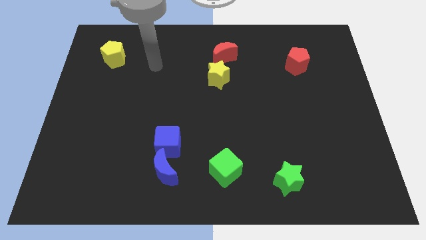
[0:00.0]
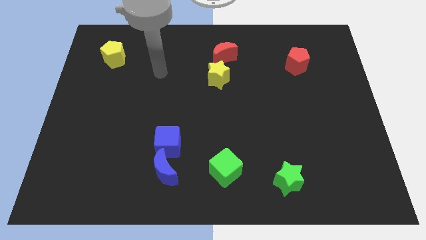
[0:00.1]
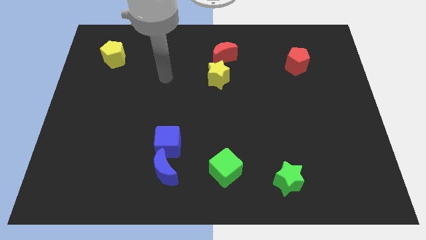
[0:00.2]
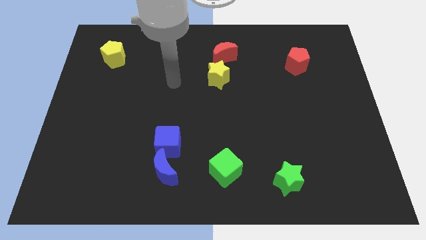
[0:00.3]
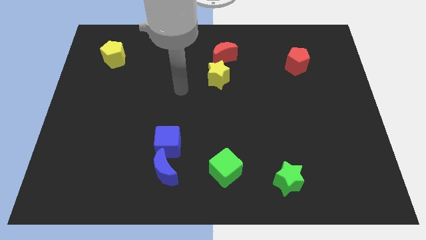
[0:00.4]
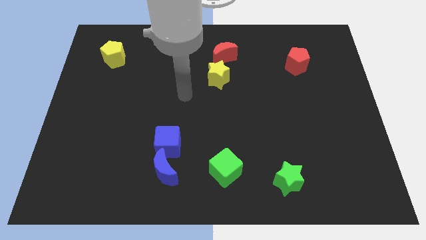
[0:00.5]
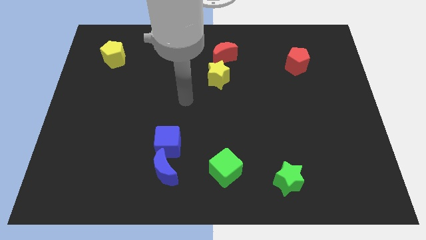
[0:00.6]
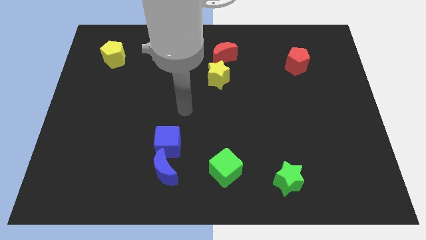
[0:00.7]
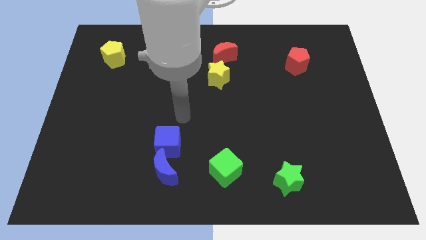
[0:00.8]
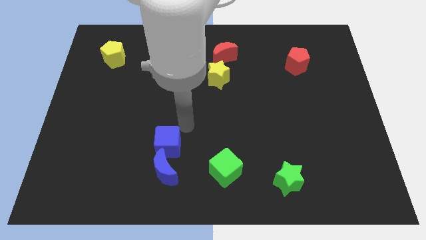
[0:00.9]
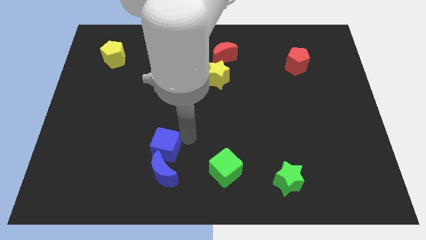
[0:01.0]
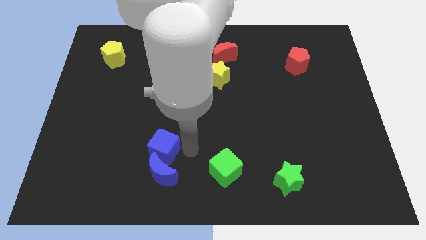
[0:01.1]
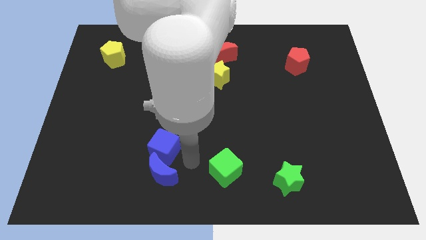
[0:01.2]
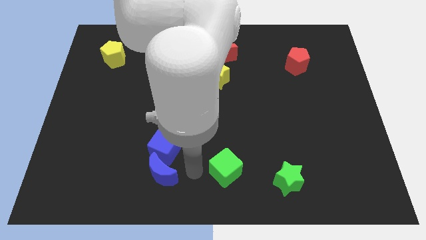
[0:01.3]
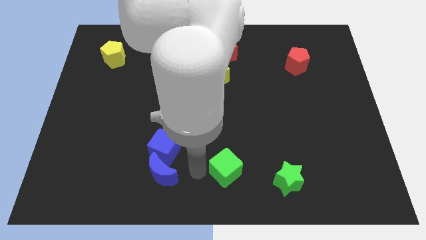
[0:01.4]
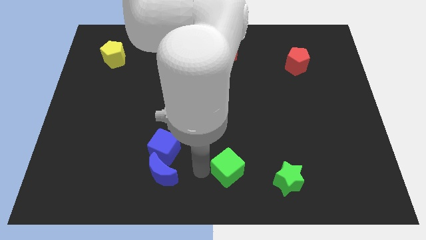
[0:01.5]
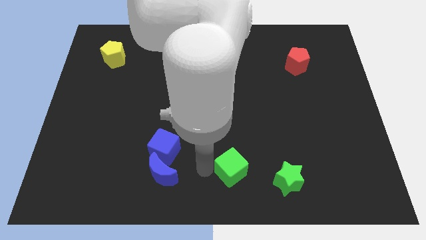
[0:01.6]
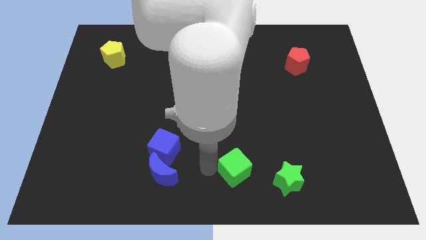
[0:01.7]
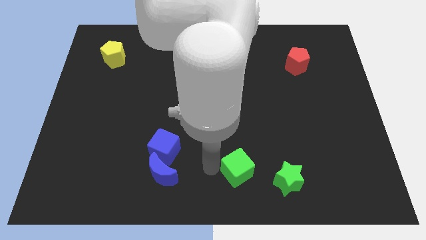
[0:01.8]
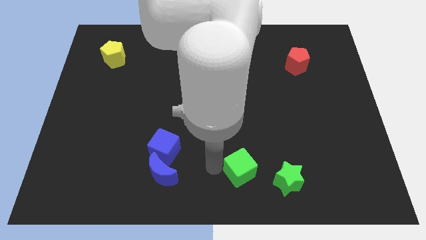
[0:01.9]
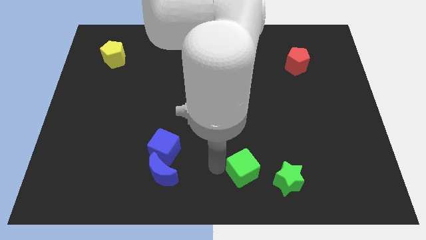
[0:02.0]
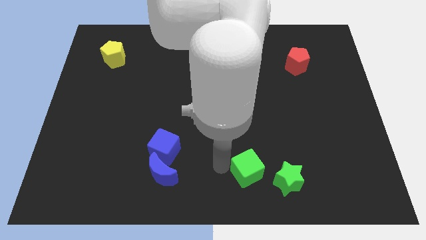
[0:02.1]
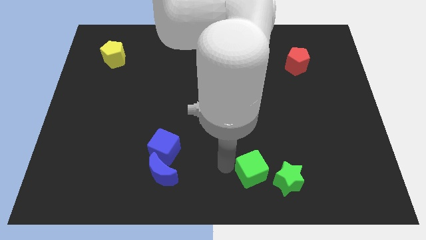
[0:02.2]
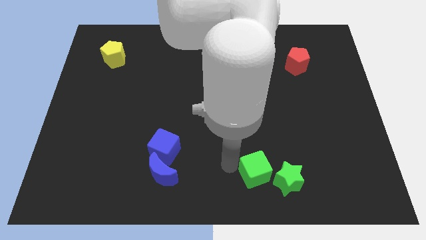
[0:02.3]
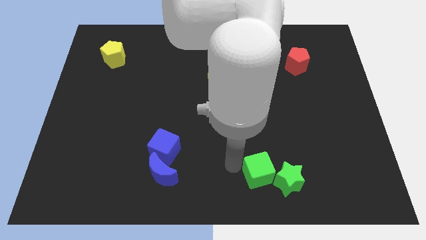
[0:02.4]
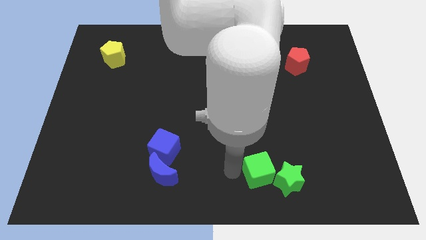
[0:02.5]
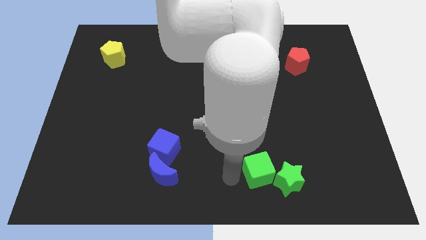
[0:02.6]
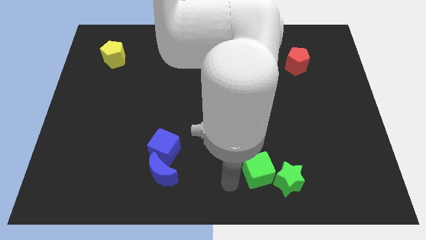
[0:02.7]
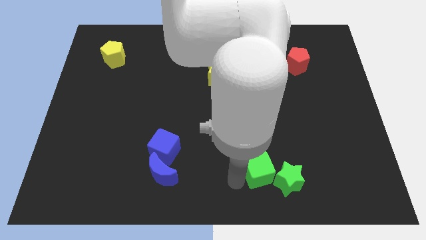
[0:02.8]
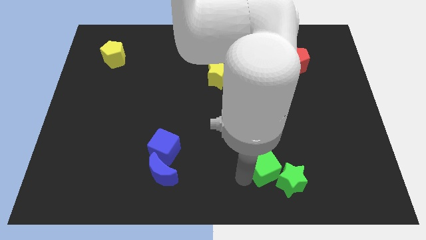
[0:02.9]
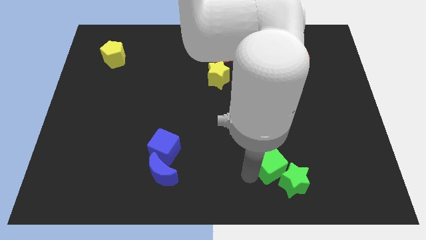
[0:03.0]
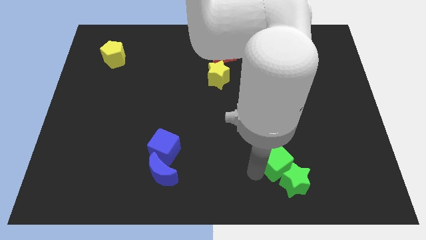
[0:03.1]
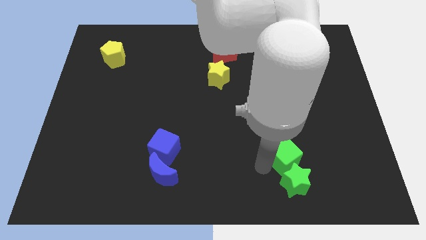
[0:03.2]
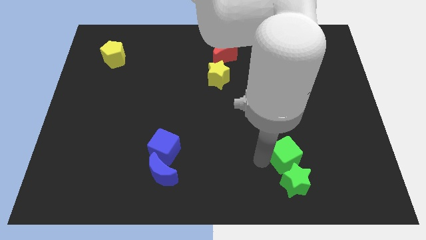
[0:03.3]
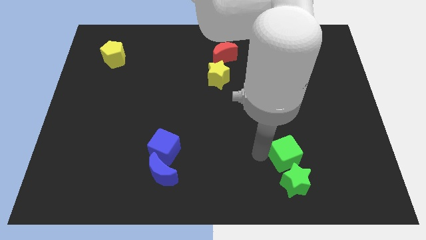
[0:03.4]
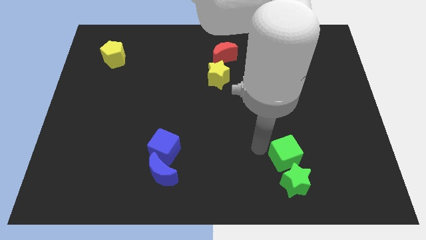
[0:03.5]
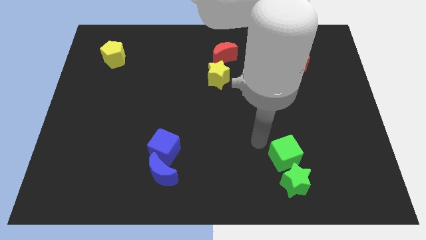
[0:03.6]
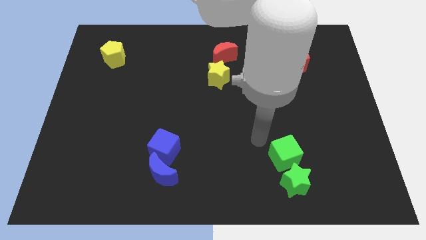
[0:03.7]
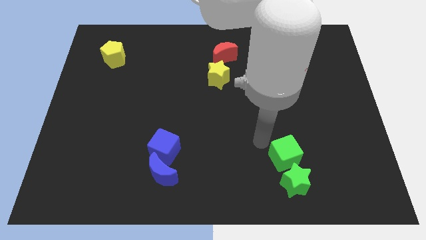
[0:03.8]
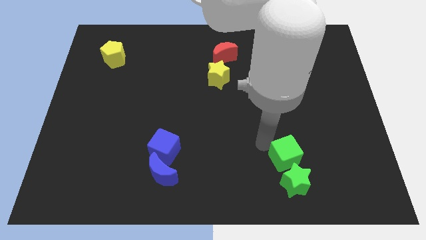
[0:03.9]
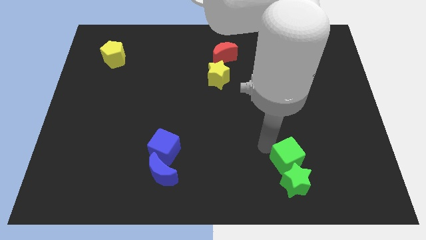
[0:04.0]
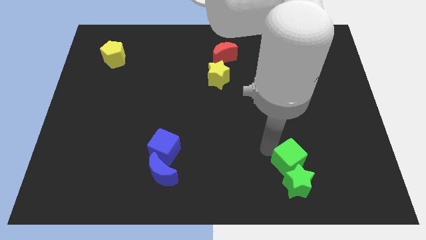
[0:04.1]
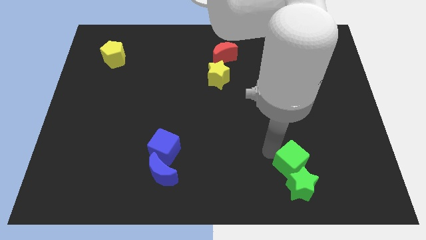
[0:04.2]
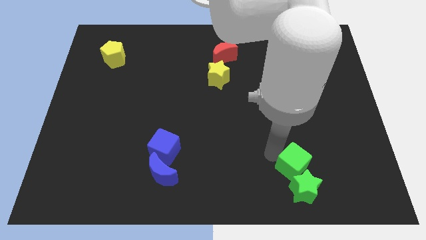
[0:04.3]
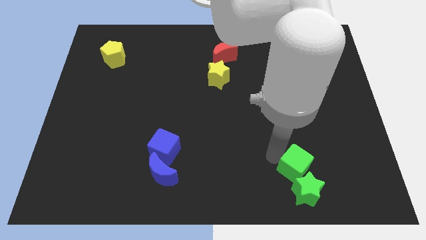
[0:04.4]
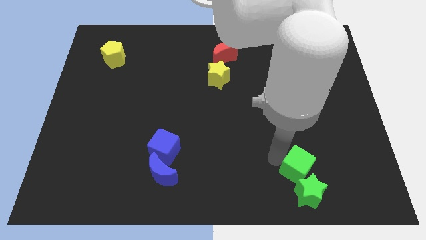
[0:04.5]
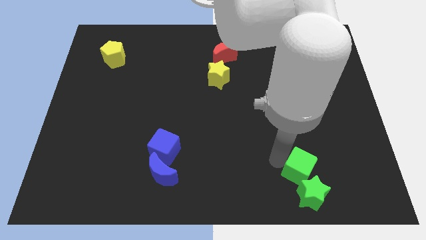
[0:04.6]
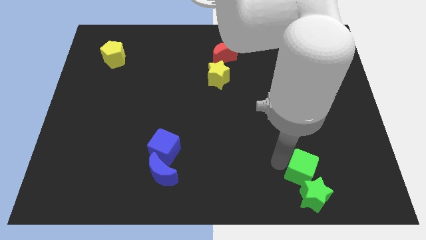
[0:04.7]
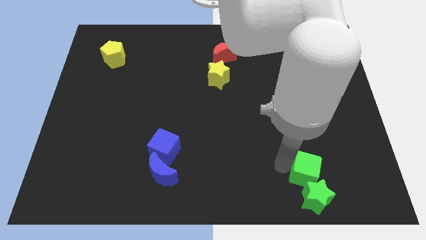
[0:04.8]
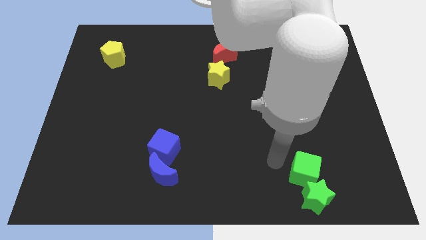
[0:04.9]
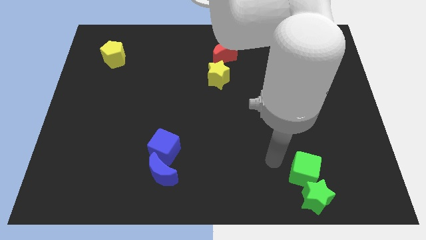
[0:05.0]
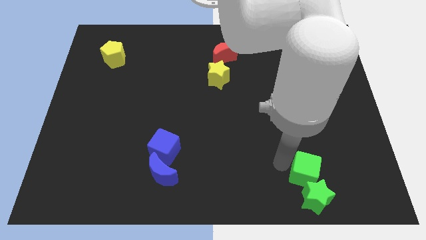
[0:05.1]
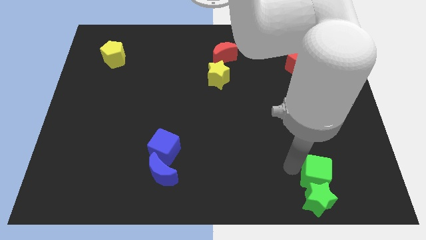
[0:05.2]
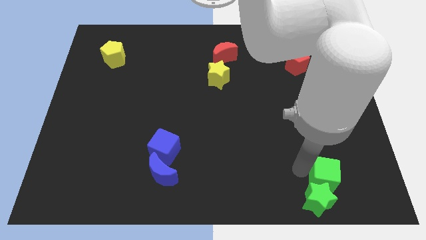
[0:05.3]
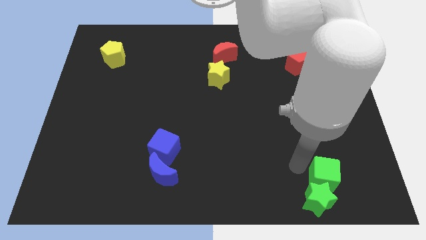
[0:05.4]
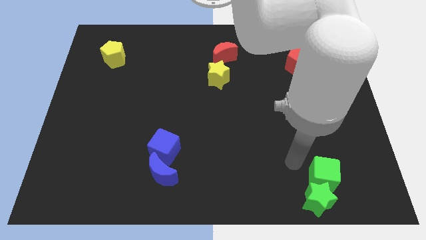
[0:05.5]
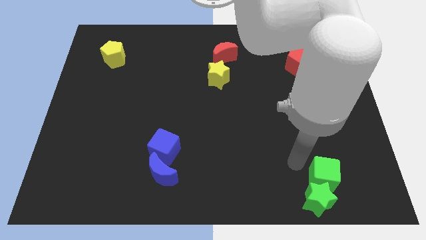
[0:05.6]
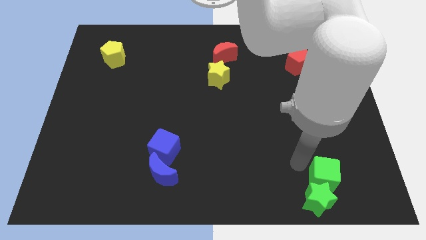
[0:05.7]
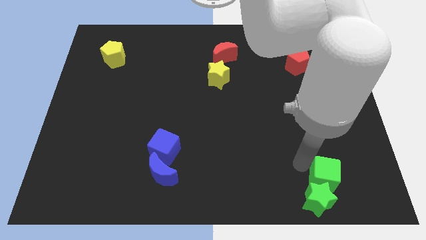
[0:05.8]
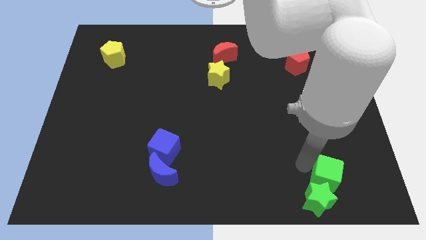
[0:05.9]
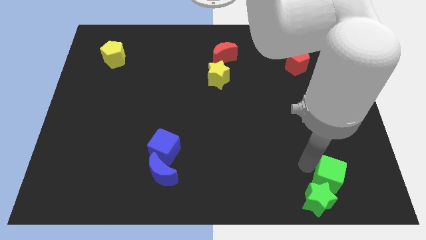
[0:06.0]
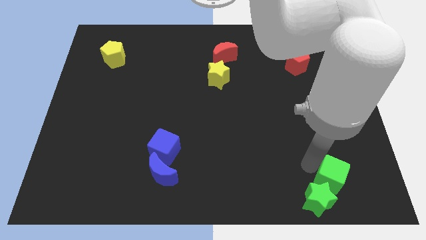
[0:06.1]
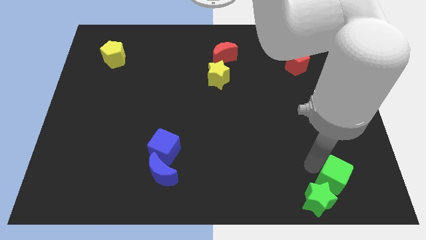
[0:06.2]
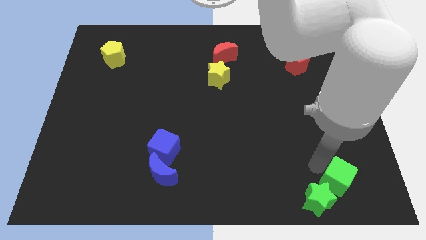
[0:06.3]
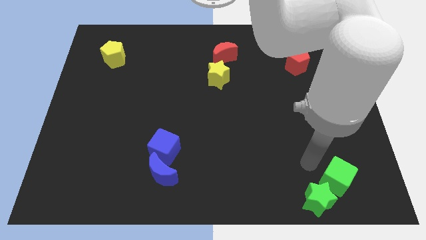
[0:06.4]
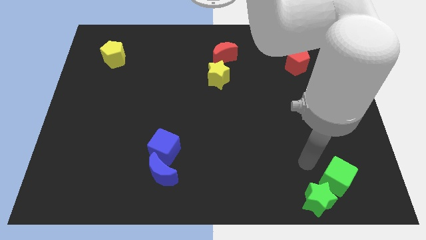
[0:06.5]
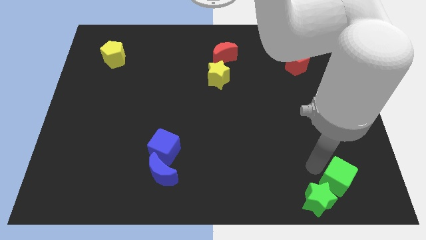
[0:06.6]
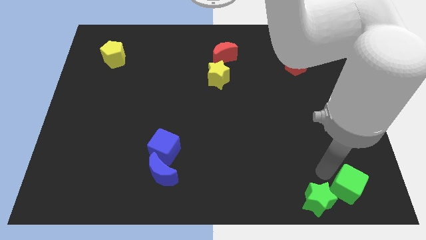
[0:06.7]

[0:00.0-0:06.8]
put the green cube to the lower right corner

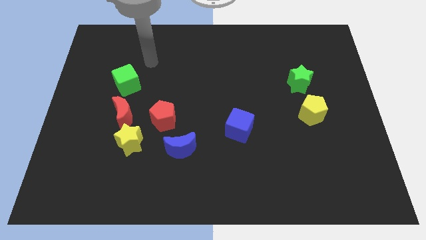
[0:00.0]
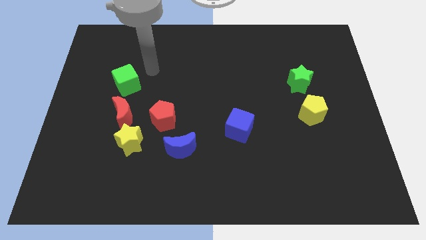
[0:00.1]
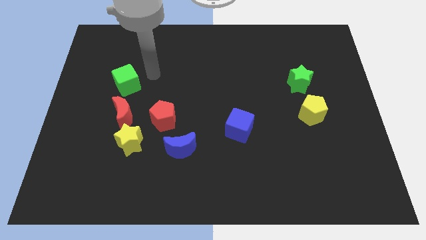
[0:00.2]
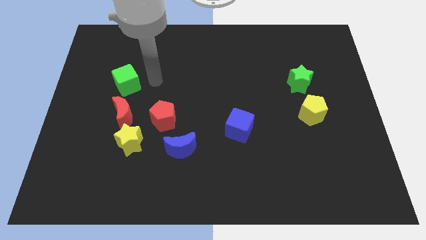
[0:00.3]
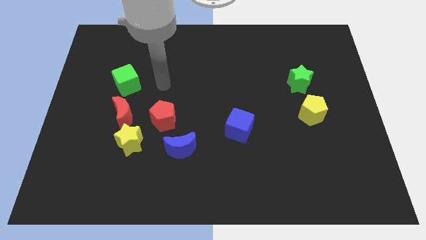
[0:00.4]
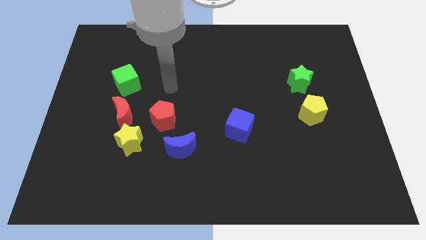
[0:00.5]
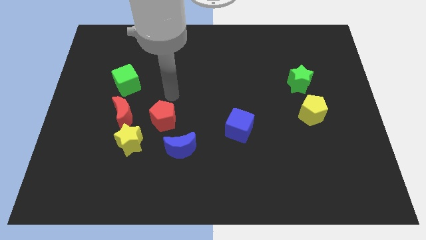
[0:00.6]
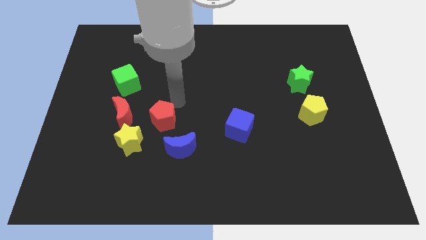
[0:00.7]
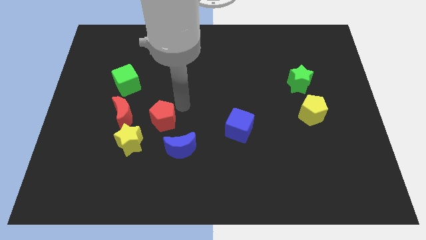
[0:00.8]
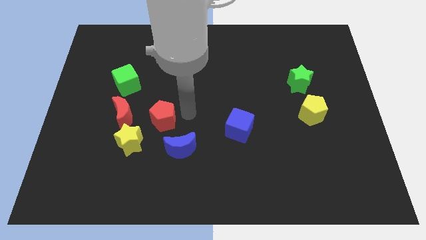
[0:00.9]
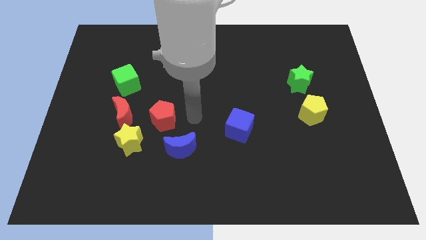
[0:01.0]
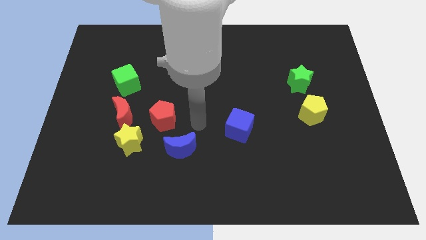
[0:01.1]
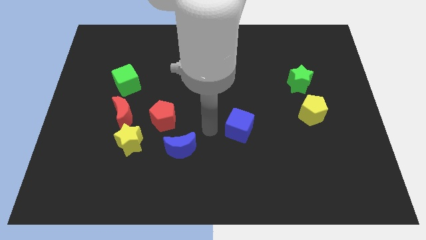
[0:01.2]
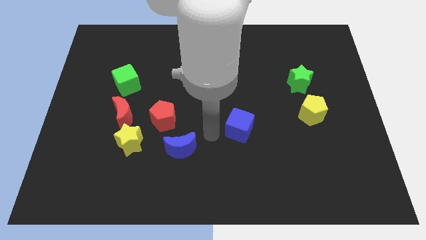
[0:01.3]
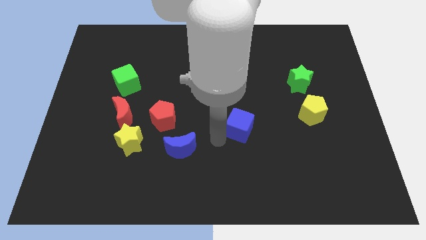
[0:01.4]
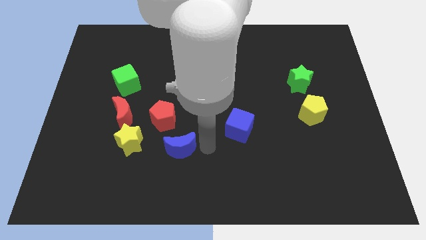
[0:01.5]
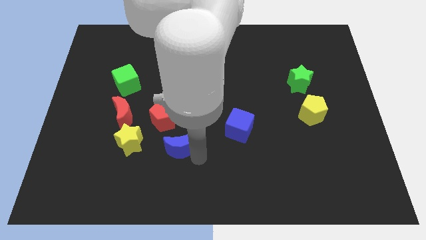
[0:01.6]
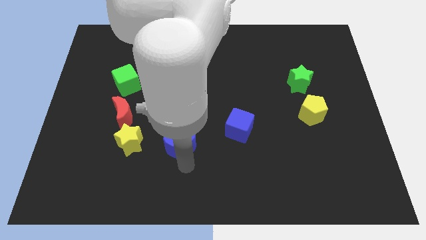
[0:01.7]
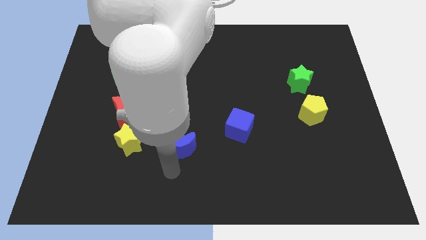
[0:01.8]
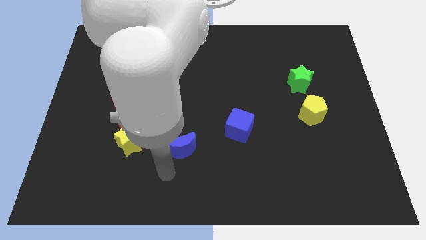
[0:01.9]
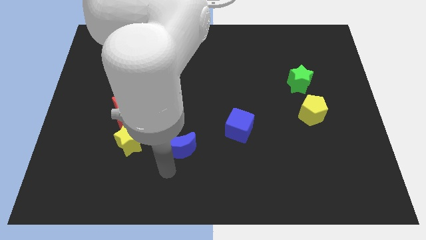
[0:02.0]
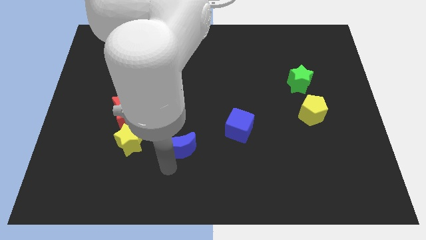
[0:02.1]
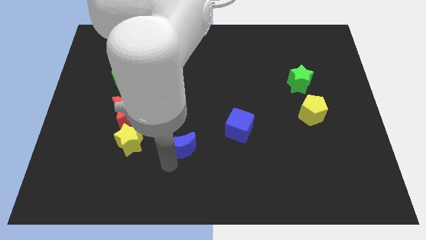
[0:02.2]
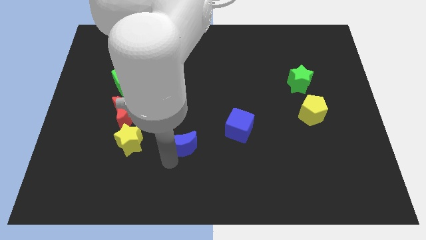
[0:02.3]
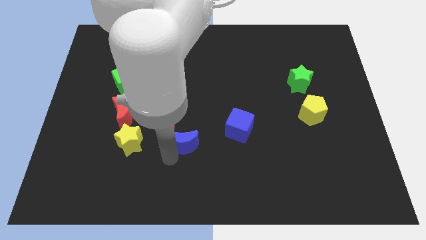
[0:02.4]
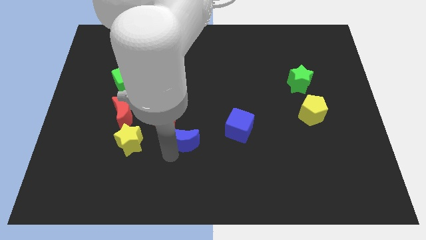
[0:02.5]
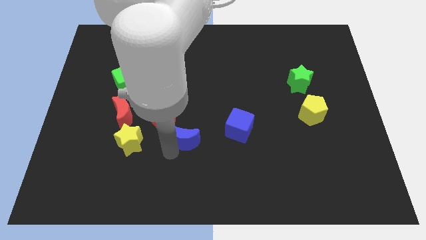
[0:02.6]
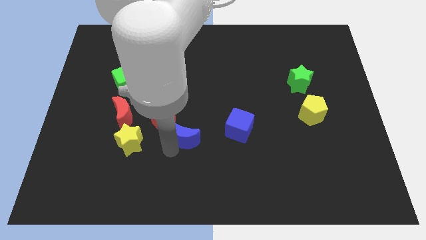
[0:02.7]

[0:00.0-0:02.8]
slide the blue moon to the center of the board
